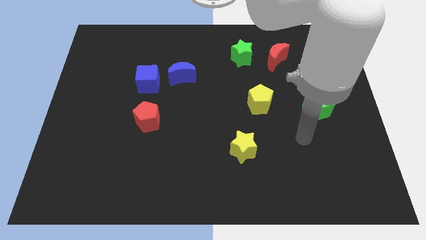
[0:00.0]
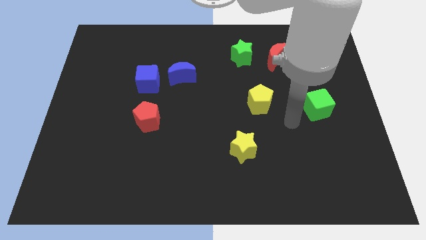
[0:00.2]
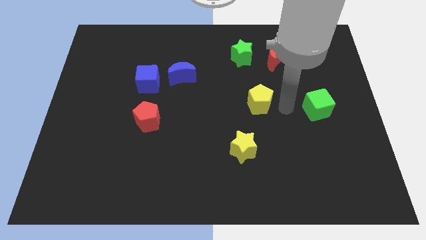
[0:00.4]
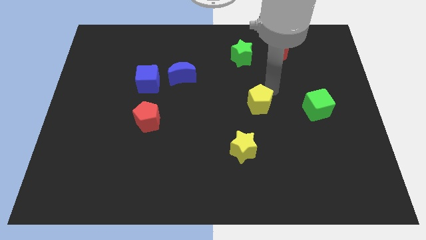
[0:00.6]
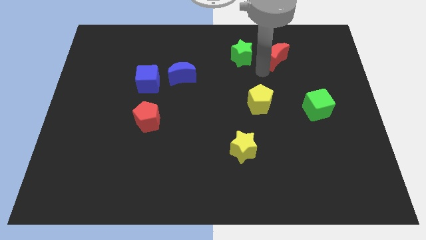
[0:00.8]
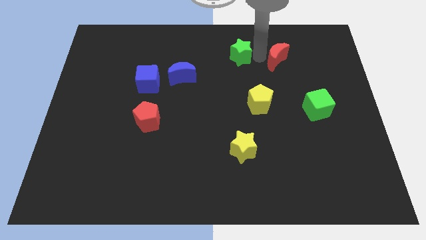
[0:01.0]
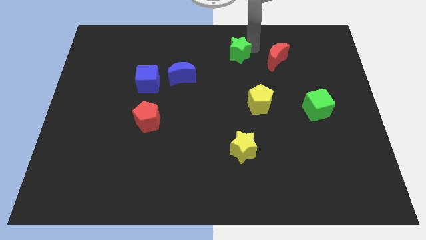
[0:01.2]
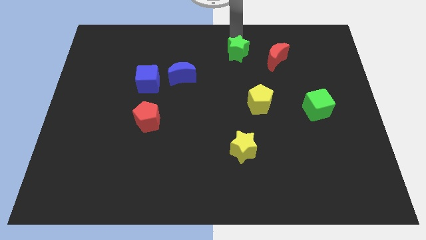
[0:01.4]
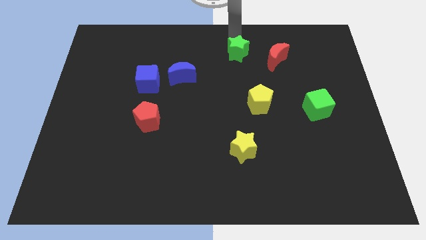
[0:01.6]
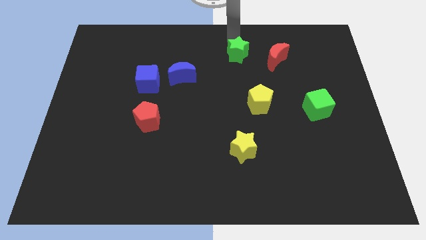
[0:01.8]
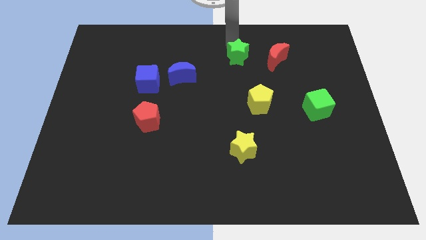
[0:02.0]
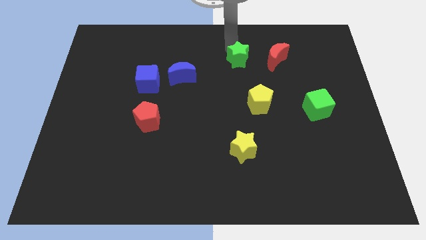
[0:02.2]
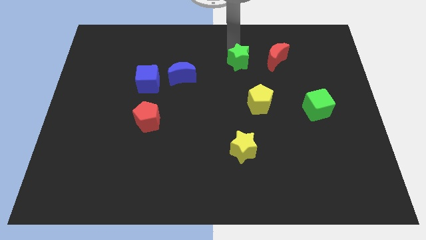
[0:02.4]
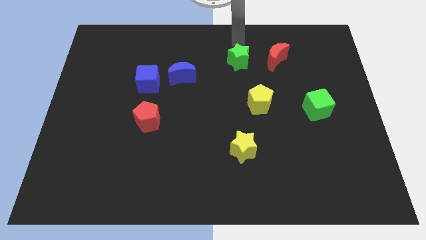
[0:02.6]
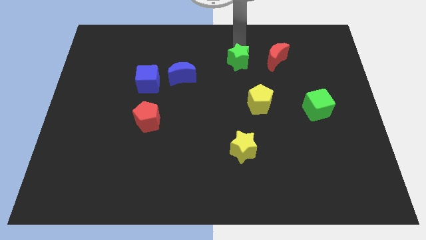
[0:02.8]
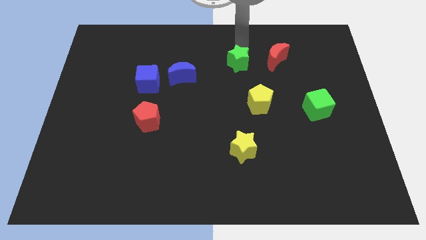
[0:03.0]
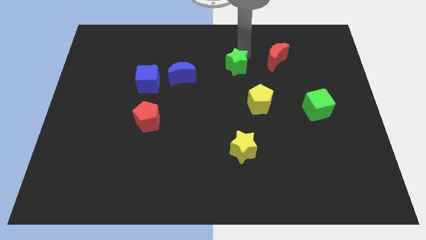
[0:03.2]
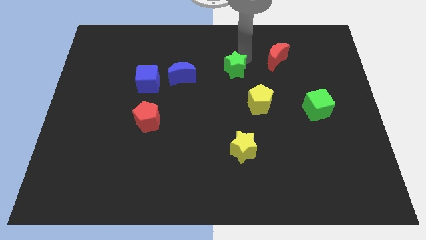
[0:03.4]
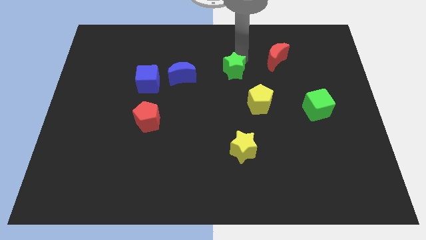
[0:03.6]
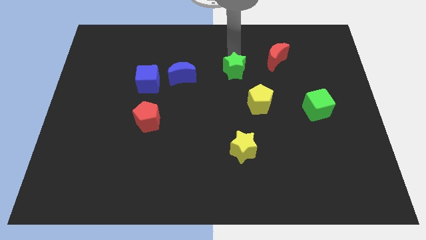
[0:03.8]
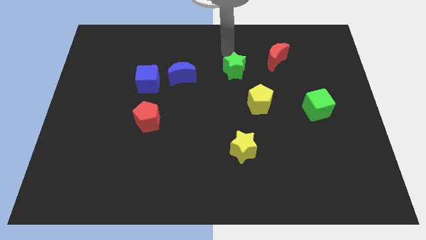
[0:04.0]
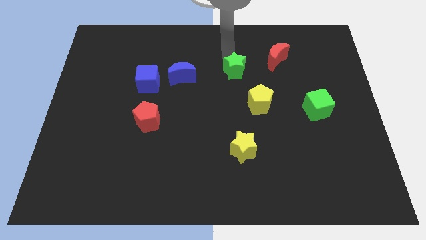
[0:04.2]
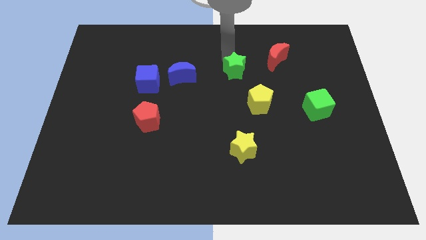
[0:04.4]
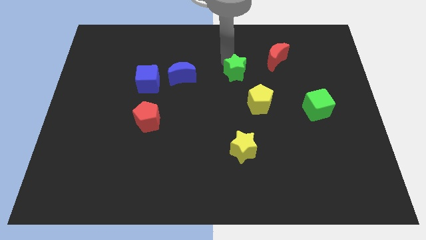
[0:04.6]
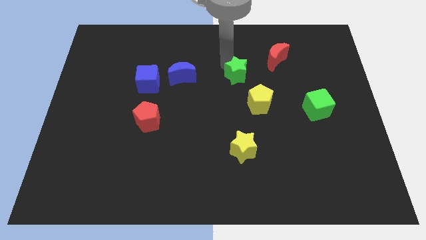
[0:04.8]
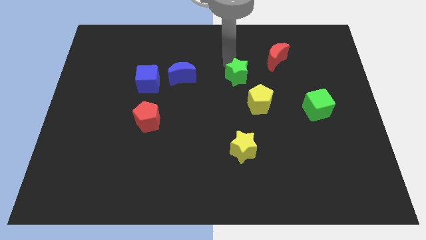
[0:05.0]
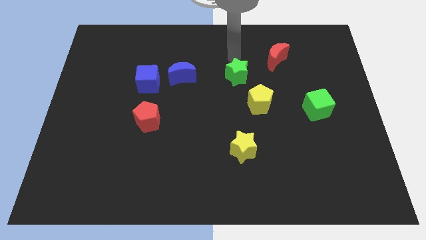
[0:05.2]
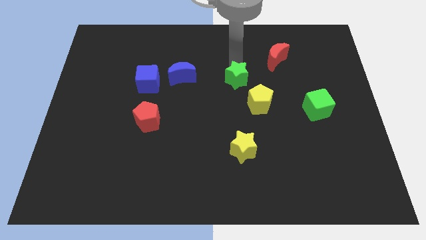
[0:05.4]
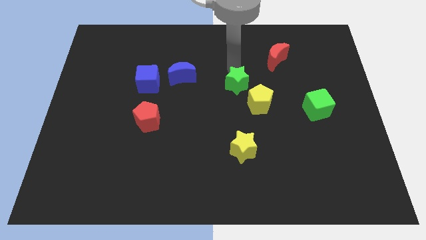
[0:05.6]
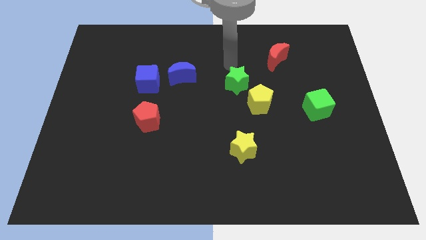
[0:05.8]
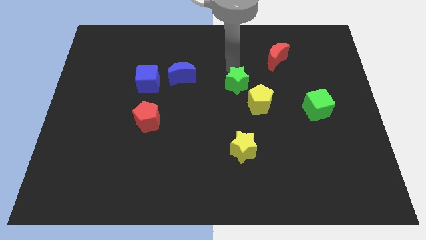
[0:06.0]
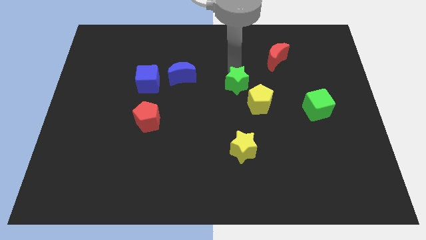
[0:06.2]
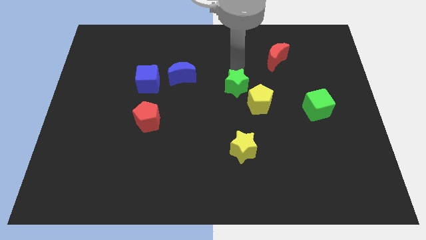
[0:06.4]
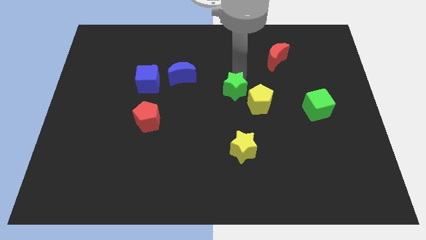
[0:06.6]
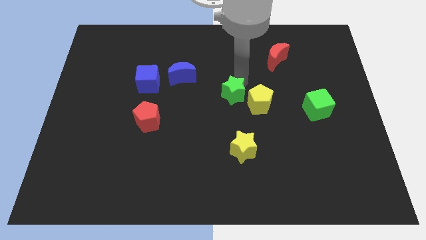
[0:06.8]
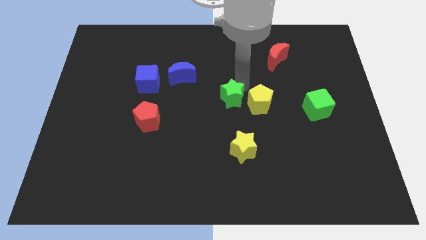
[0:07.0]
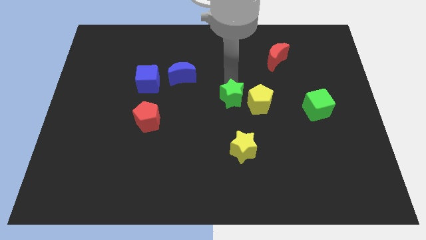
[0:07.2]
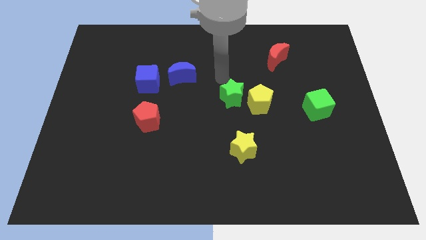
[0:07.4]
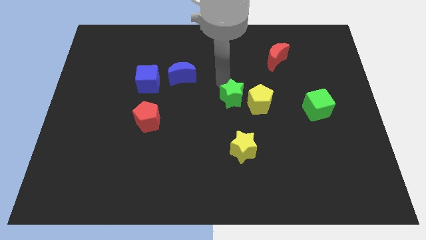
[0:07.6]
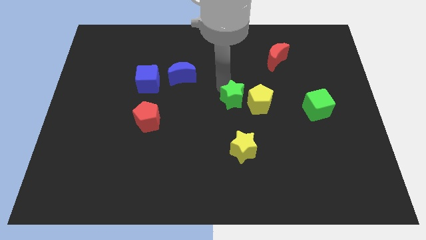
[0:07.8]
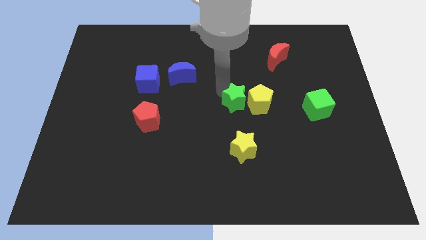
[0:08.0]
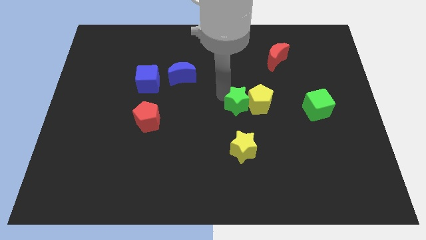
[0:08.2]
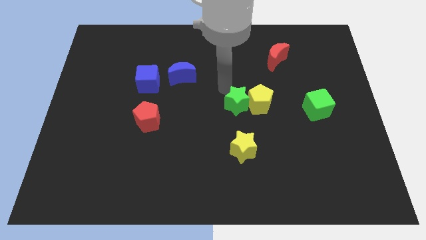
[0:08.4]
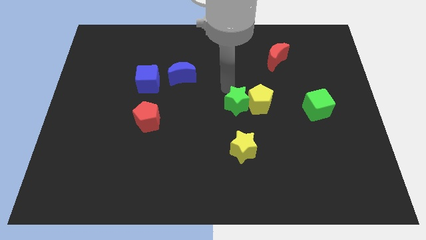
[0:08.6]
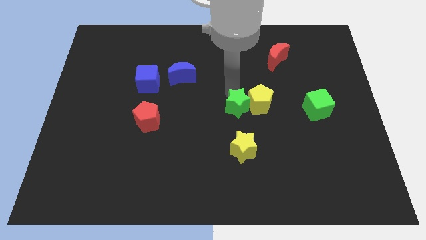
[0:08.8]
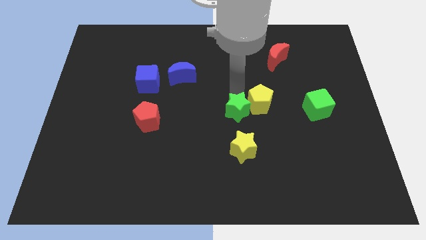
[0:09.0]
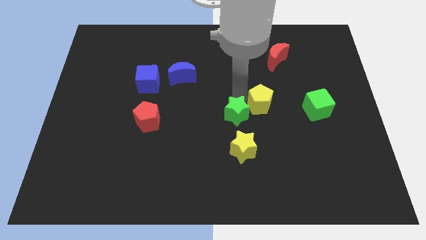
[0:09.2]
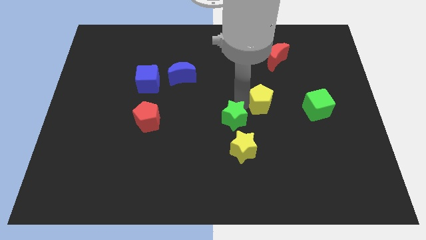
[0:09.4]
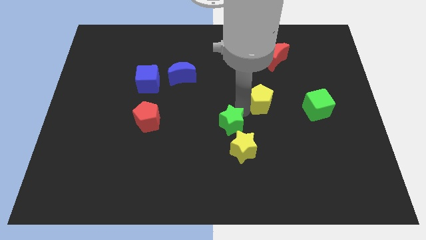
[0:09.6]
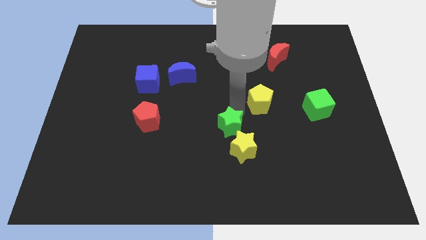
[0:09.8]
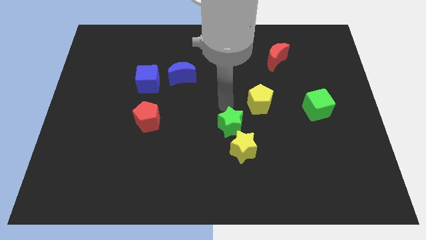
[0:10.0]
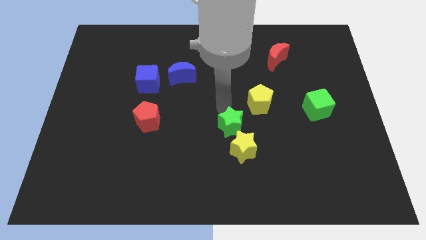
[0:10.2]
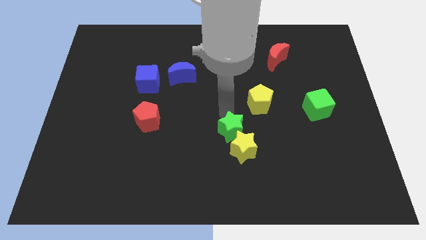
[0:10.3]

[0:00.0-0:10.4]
move the green star to the yellow star

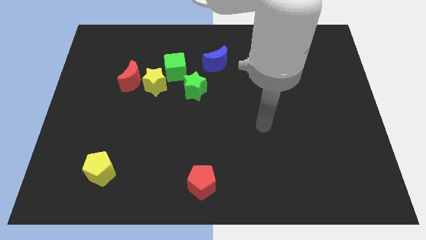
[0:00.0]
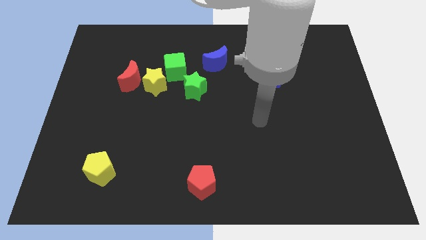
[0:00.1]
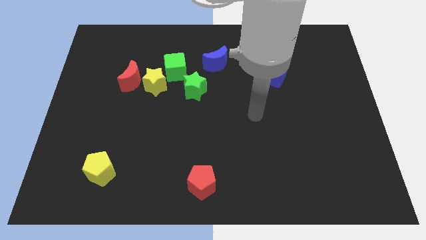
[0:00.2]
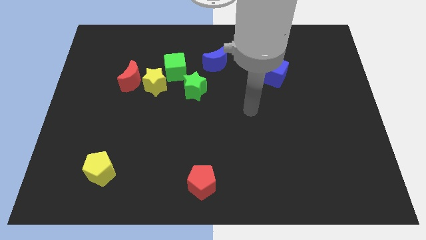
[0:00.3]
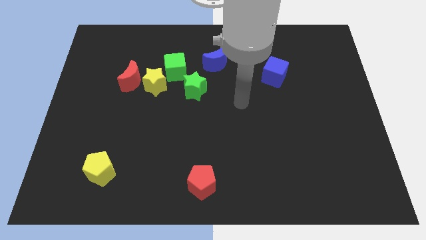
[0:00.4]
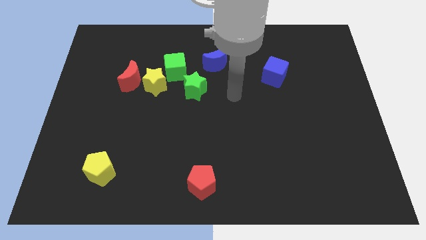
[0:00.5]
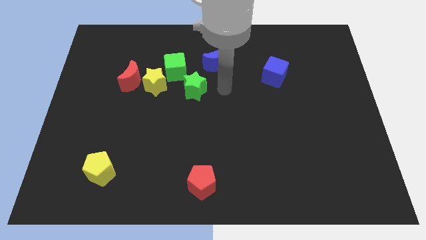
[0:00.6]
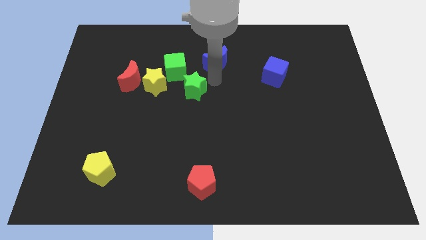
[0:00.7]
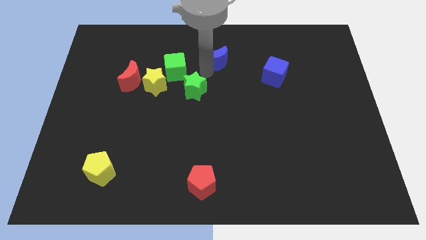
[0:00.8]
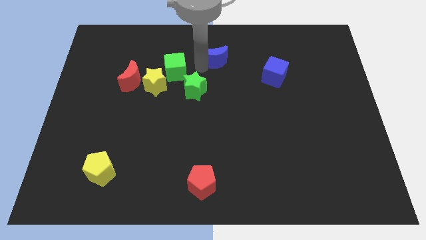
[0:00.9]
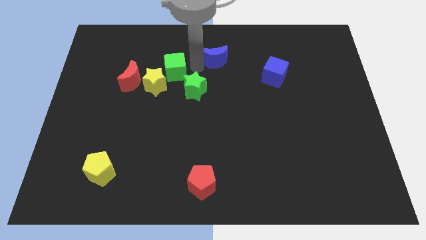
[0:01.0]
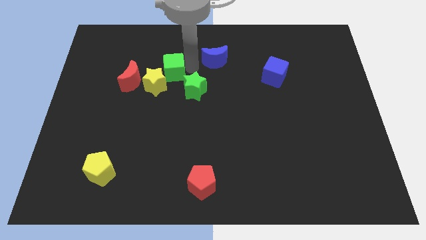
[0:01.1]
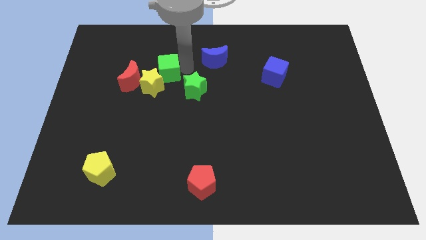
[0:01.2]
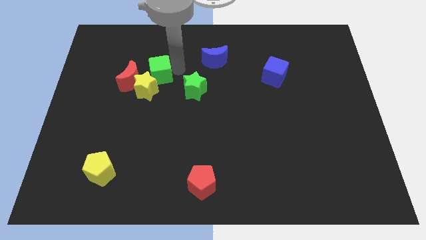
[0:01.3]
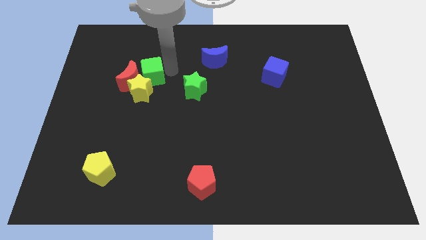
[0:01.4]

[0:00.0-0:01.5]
push the green cube to the red moon
